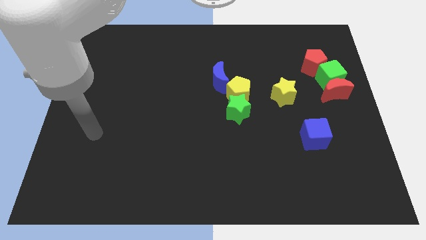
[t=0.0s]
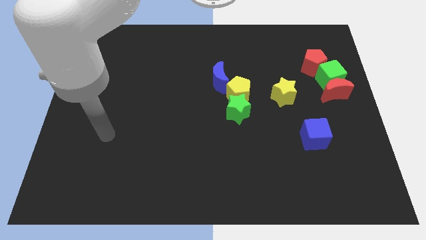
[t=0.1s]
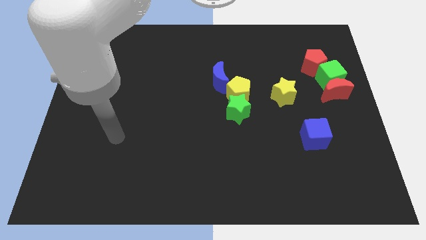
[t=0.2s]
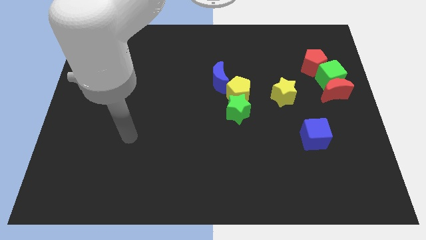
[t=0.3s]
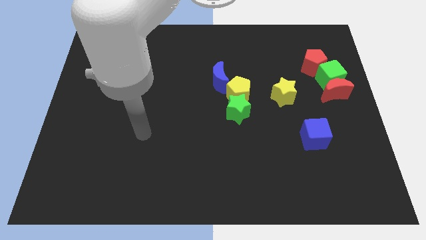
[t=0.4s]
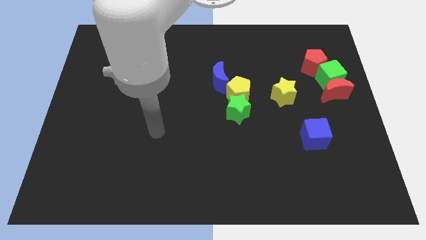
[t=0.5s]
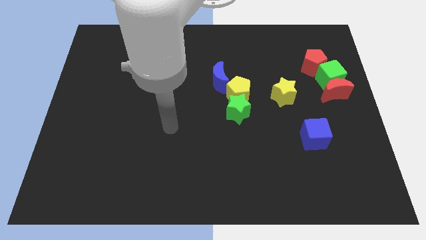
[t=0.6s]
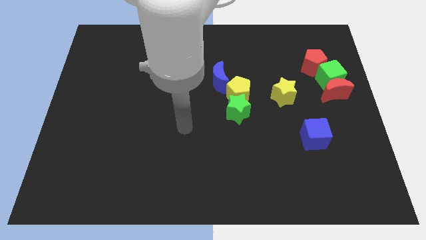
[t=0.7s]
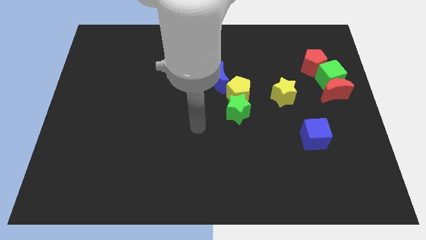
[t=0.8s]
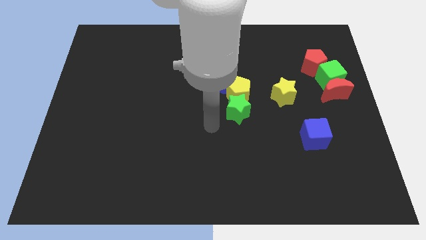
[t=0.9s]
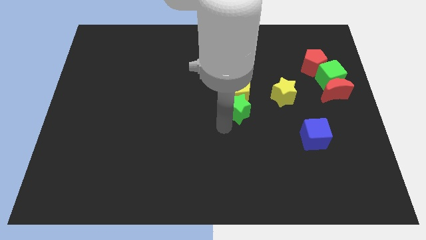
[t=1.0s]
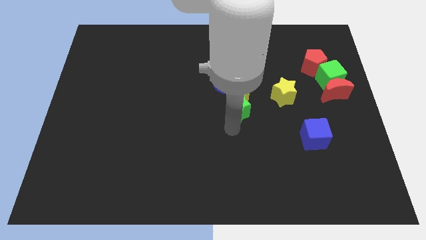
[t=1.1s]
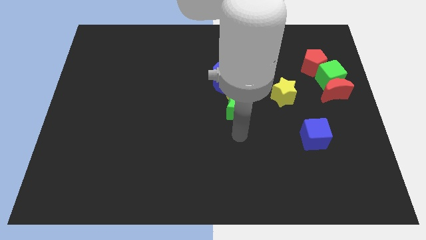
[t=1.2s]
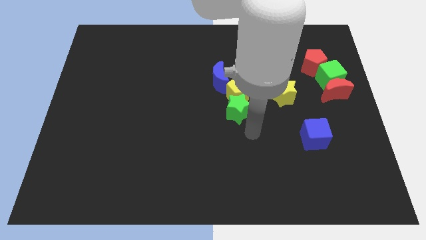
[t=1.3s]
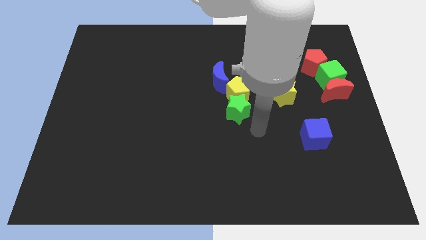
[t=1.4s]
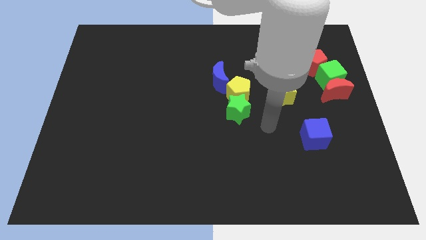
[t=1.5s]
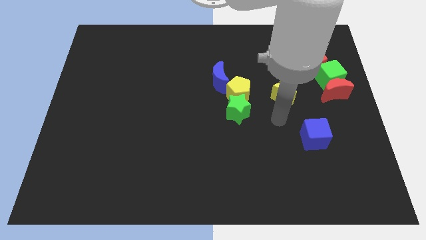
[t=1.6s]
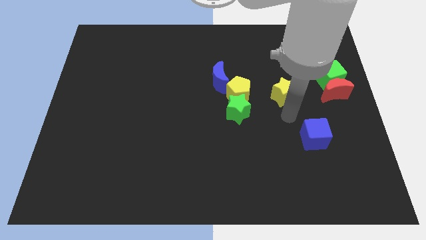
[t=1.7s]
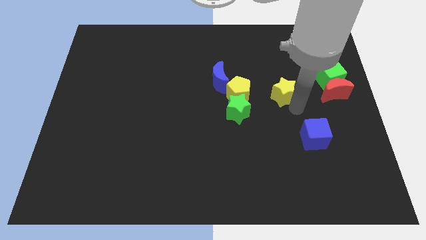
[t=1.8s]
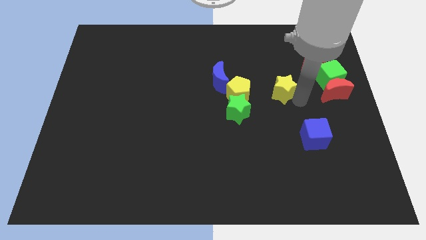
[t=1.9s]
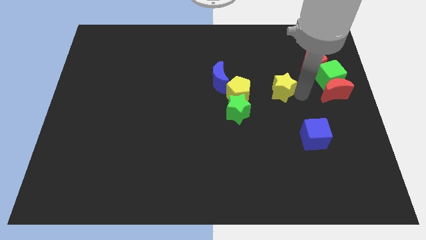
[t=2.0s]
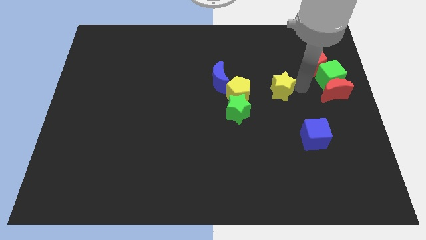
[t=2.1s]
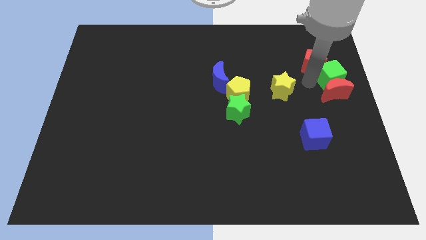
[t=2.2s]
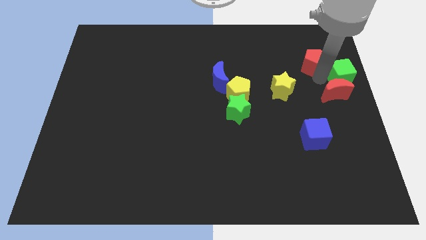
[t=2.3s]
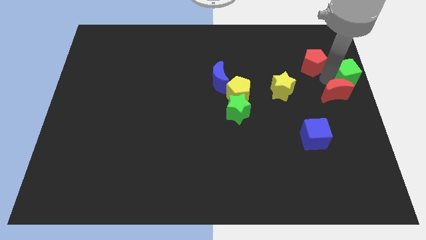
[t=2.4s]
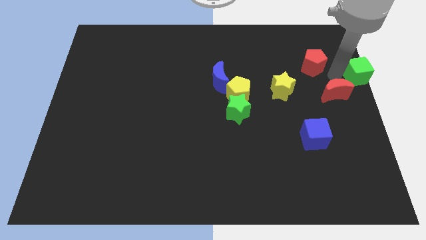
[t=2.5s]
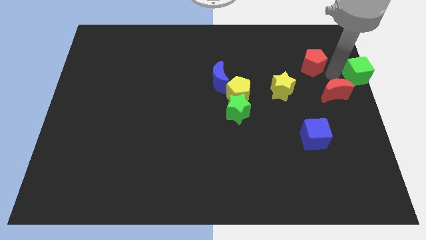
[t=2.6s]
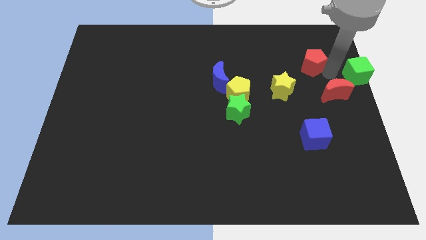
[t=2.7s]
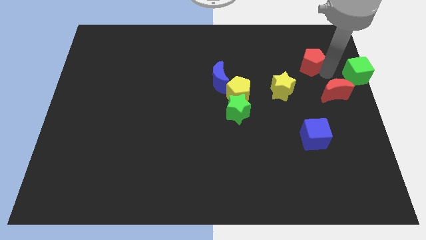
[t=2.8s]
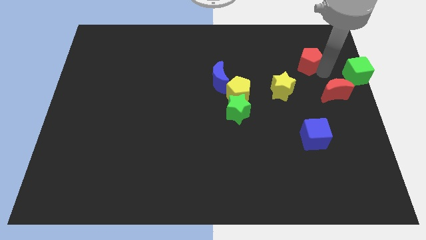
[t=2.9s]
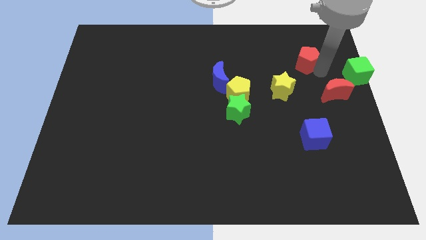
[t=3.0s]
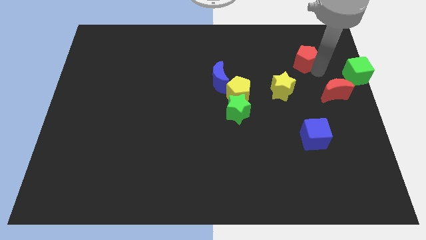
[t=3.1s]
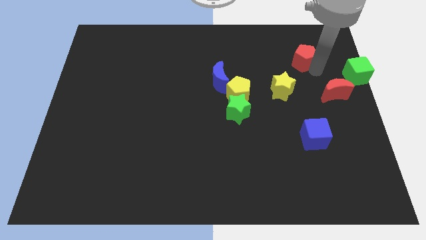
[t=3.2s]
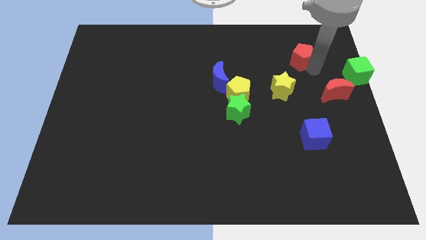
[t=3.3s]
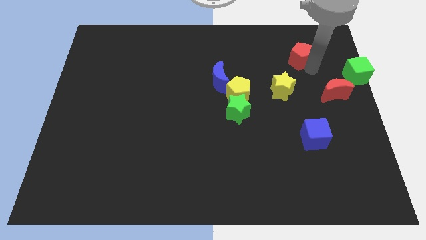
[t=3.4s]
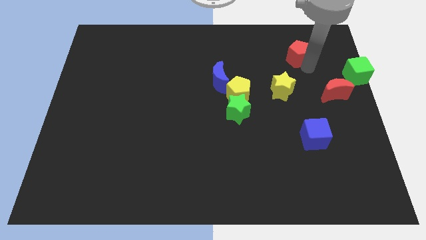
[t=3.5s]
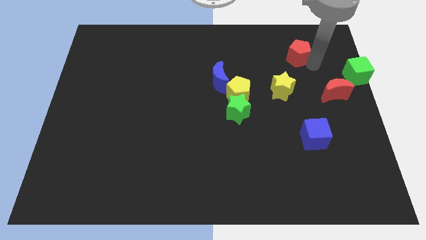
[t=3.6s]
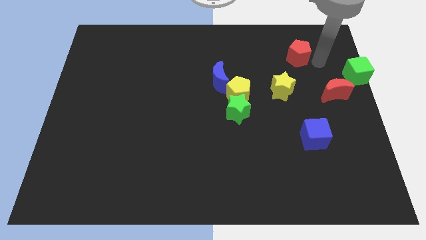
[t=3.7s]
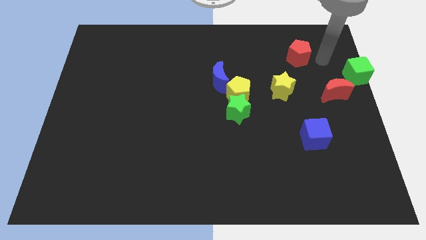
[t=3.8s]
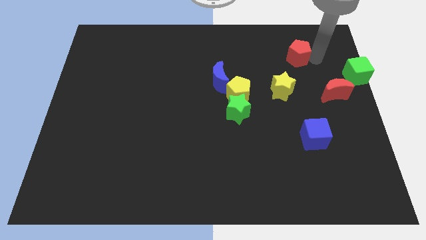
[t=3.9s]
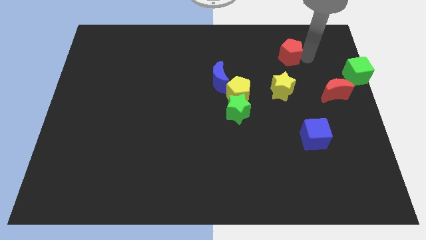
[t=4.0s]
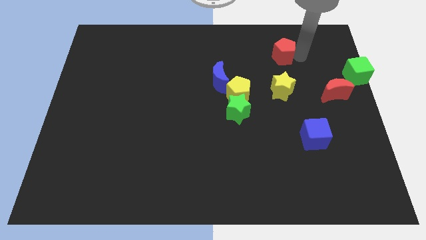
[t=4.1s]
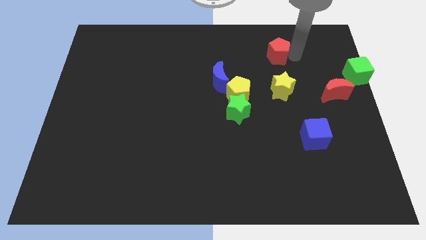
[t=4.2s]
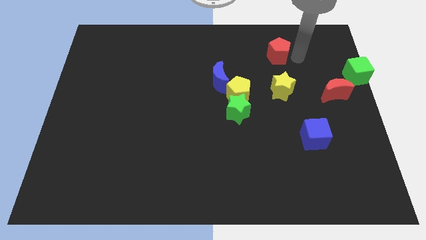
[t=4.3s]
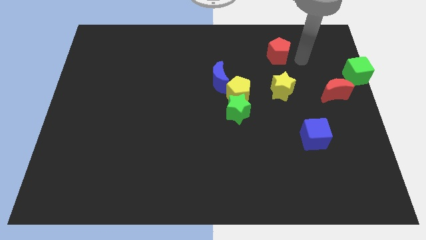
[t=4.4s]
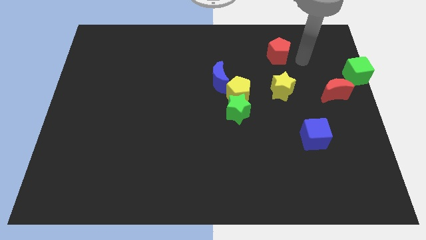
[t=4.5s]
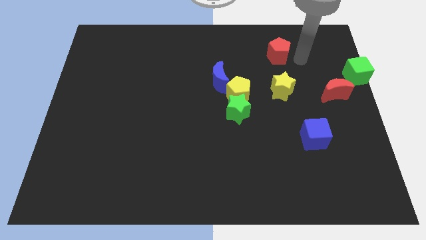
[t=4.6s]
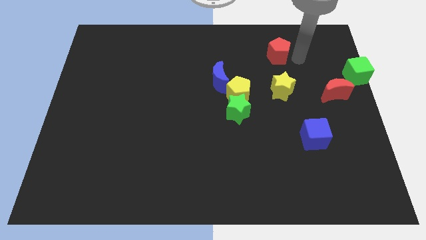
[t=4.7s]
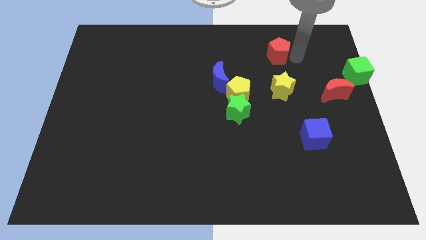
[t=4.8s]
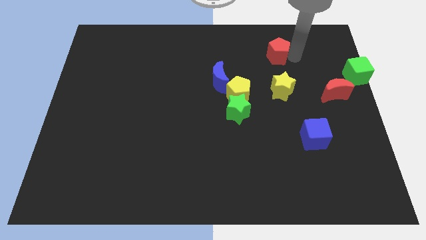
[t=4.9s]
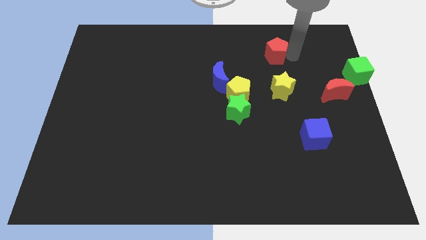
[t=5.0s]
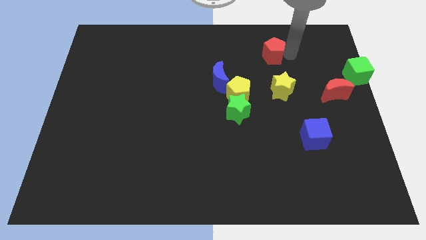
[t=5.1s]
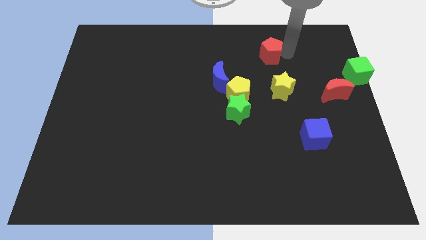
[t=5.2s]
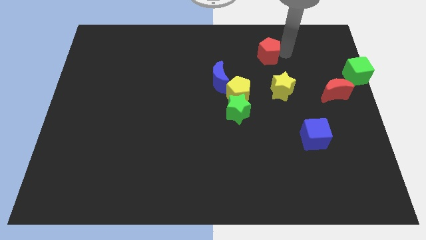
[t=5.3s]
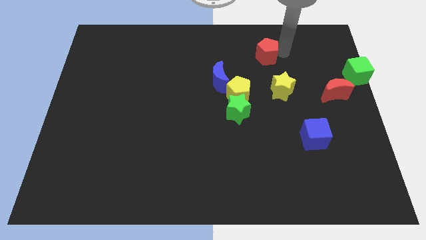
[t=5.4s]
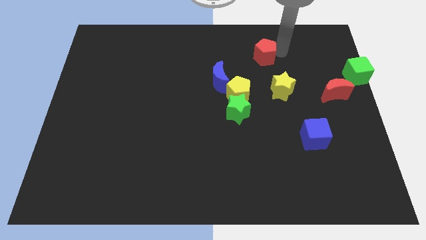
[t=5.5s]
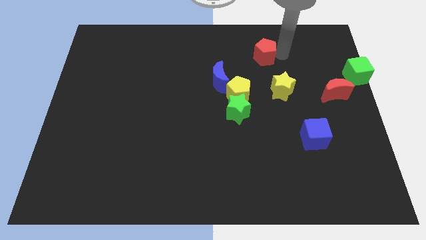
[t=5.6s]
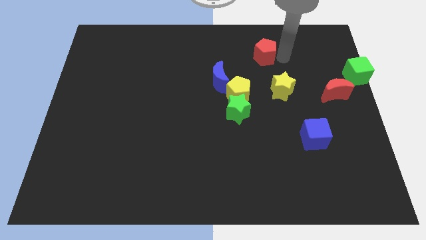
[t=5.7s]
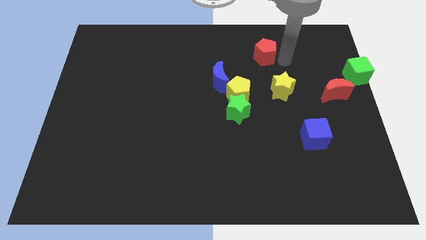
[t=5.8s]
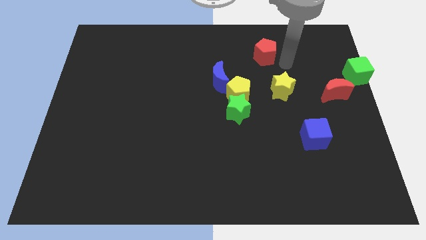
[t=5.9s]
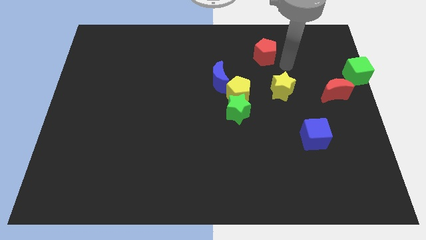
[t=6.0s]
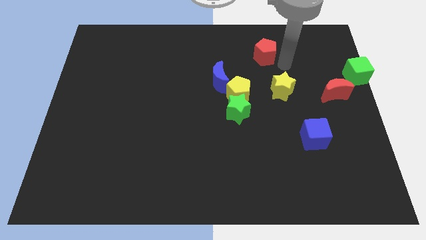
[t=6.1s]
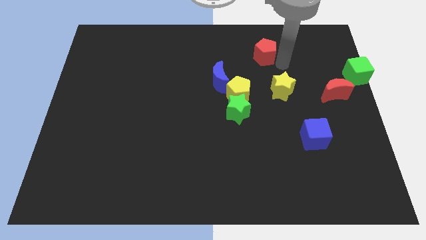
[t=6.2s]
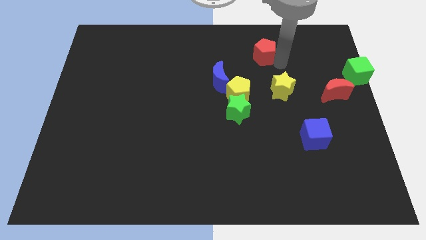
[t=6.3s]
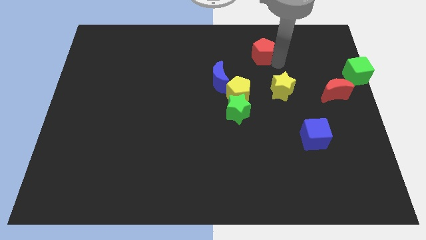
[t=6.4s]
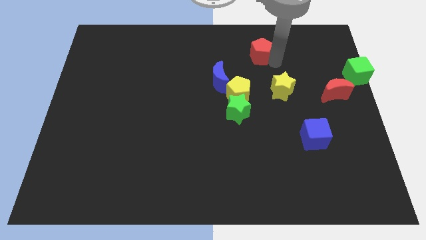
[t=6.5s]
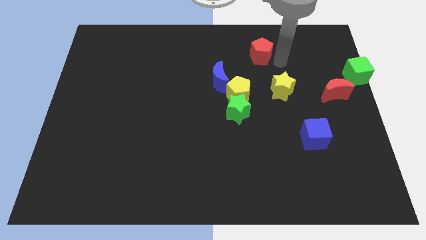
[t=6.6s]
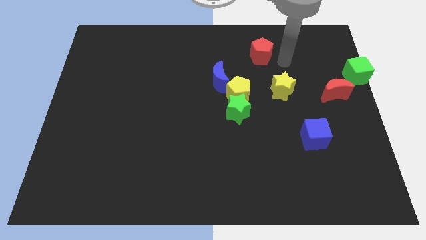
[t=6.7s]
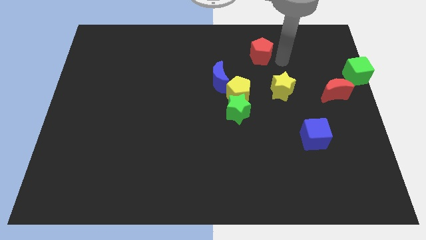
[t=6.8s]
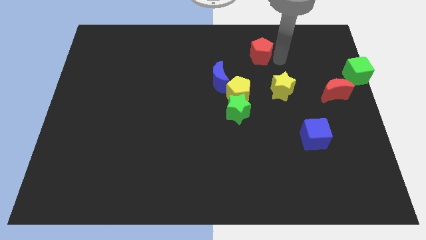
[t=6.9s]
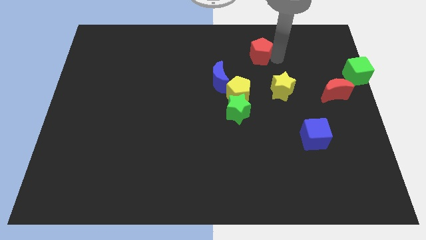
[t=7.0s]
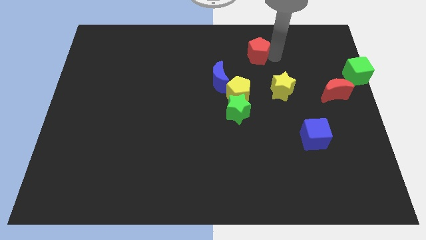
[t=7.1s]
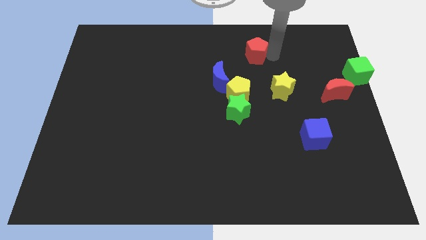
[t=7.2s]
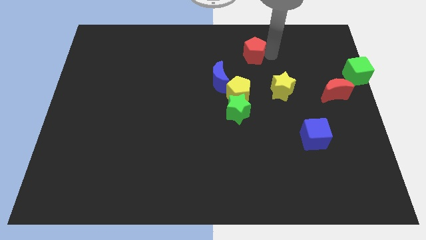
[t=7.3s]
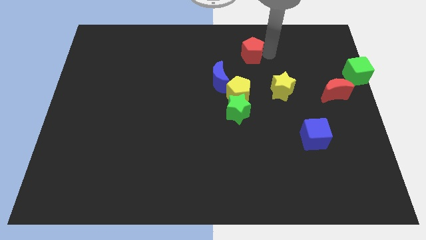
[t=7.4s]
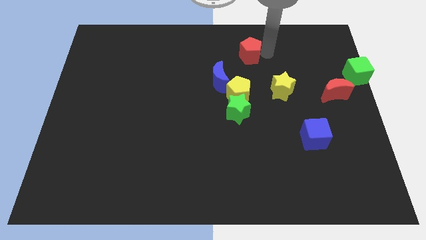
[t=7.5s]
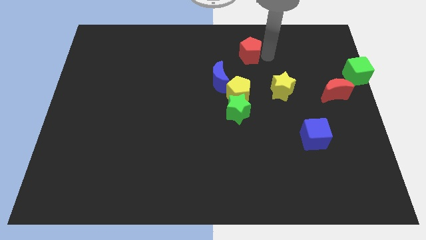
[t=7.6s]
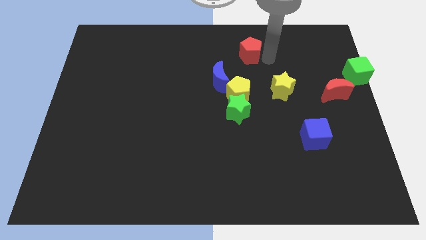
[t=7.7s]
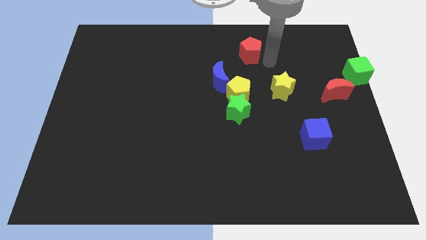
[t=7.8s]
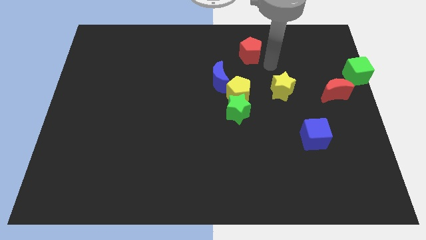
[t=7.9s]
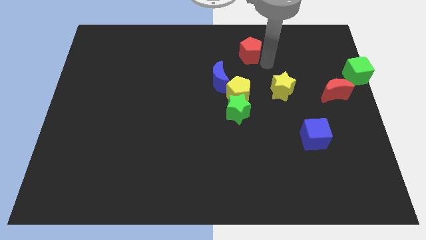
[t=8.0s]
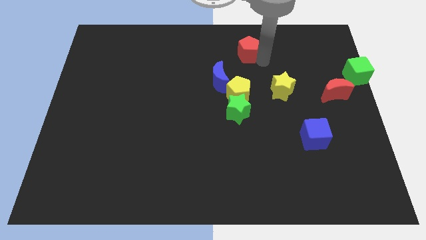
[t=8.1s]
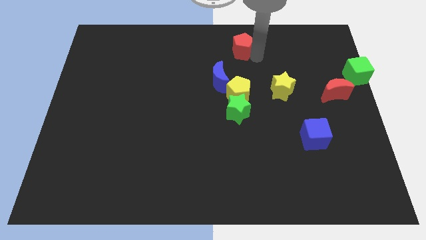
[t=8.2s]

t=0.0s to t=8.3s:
push the red pentagon to the towards your base
